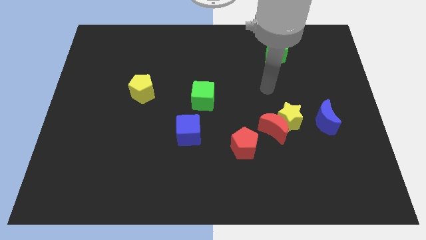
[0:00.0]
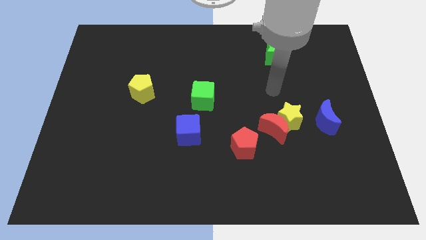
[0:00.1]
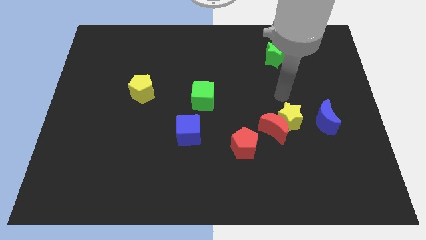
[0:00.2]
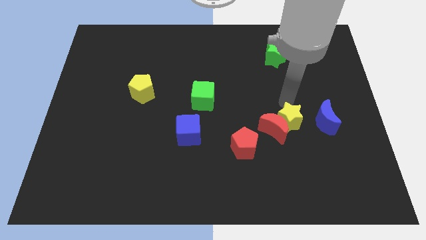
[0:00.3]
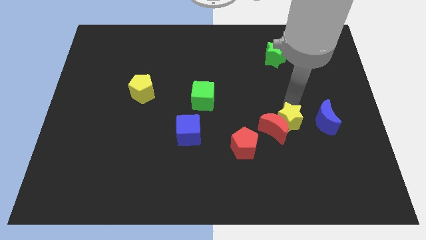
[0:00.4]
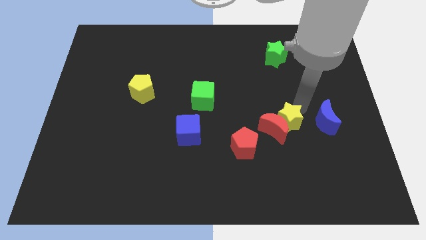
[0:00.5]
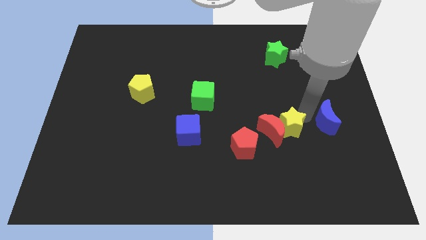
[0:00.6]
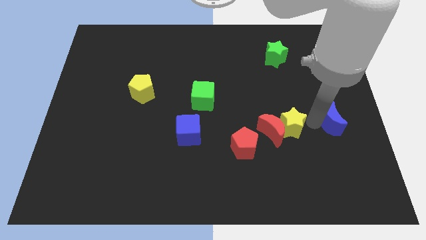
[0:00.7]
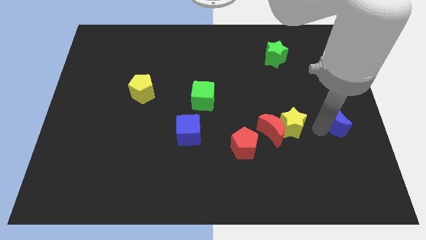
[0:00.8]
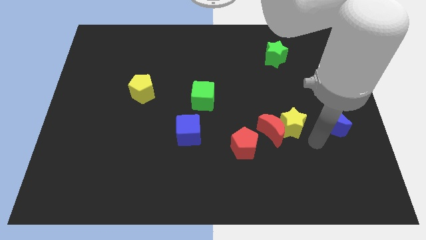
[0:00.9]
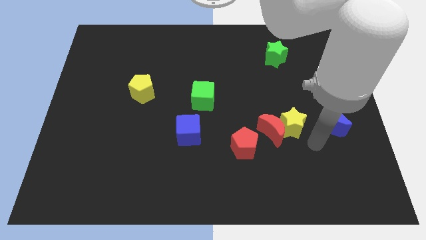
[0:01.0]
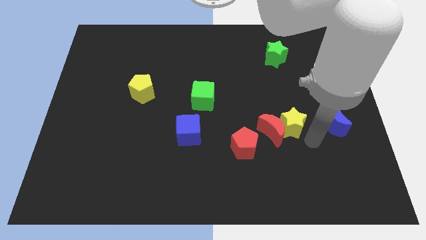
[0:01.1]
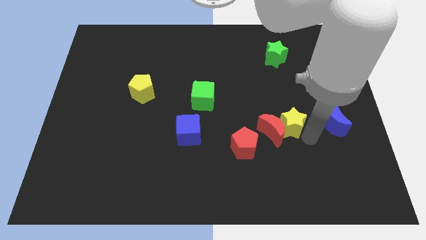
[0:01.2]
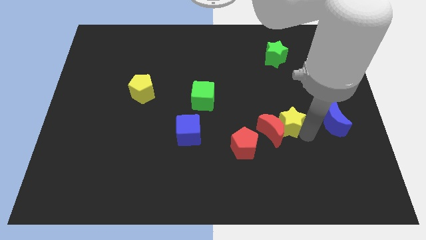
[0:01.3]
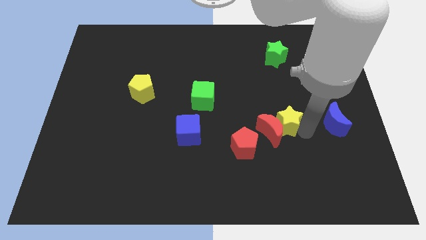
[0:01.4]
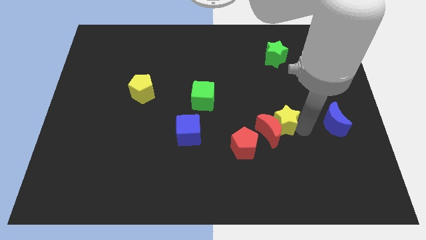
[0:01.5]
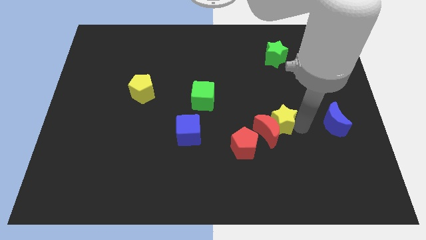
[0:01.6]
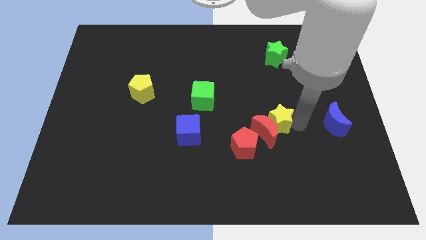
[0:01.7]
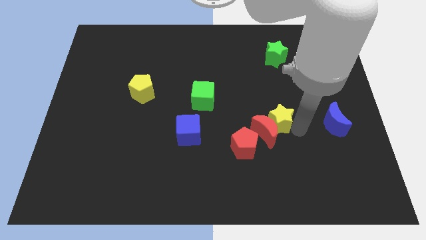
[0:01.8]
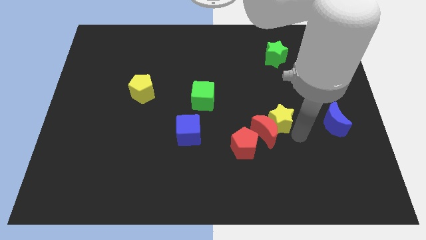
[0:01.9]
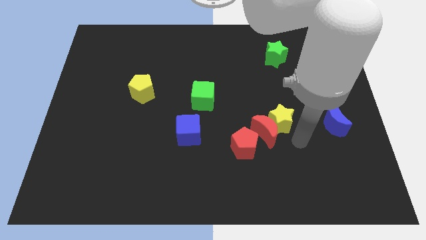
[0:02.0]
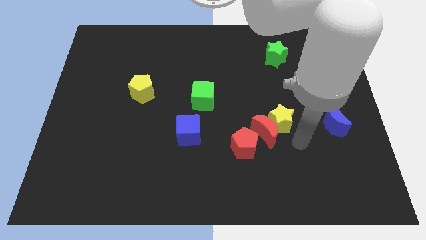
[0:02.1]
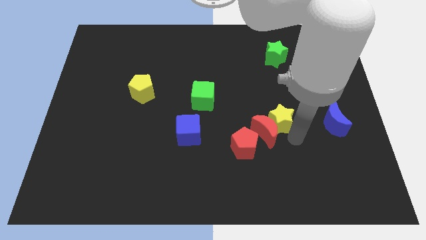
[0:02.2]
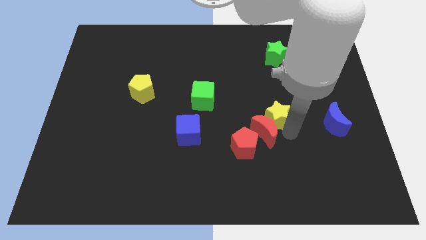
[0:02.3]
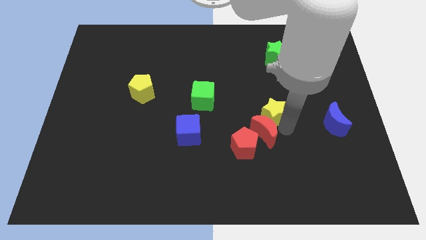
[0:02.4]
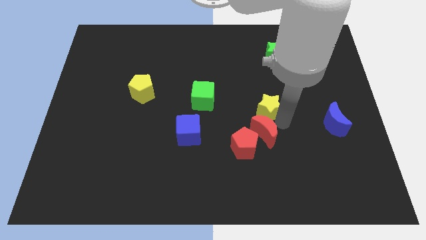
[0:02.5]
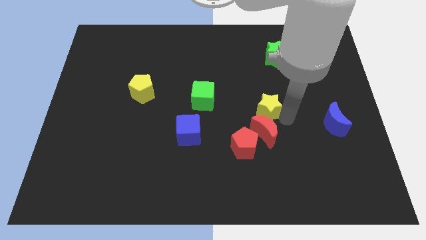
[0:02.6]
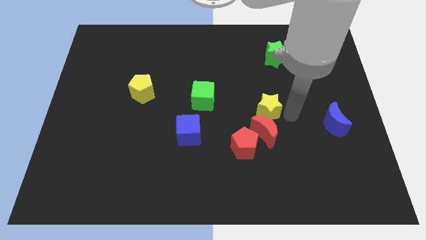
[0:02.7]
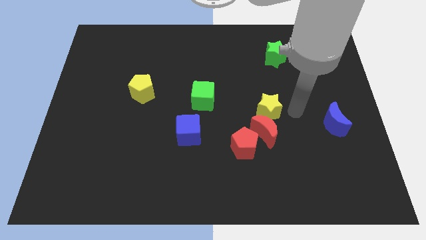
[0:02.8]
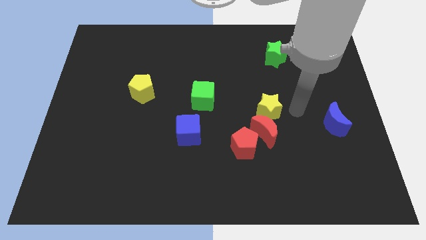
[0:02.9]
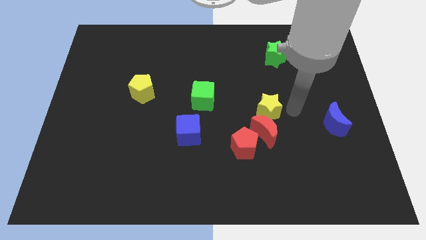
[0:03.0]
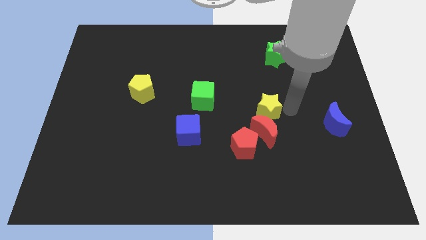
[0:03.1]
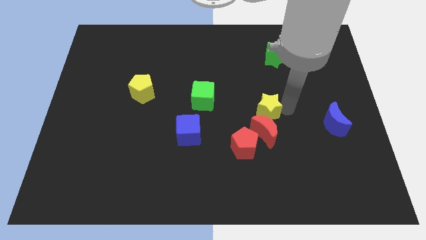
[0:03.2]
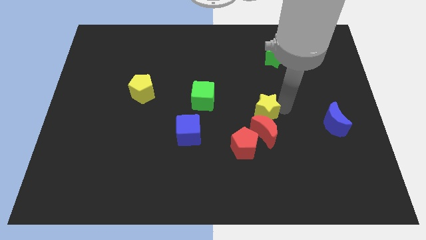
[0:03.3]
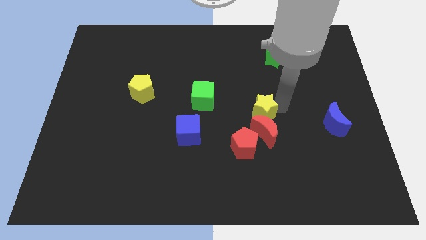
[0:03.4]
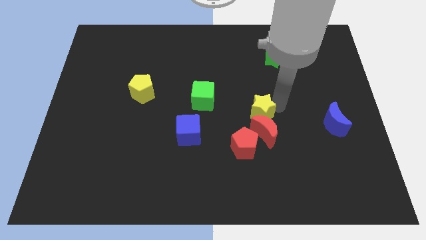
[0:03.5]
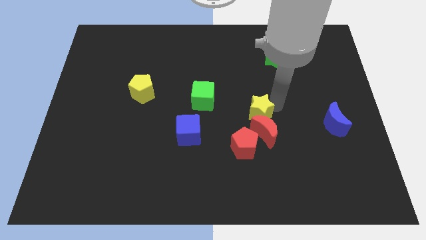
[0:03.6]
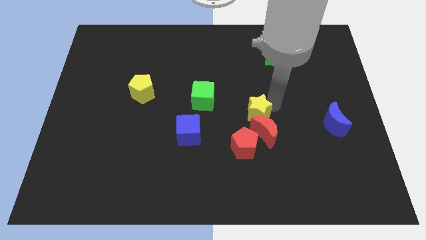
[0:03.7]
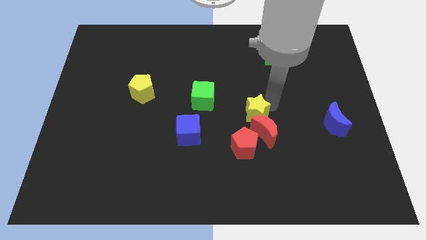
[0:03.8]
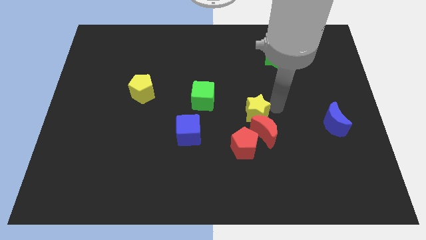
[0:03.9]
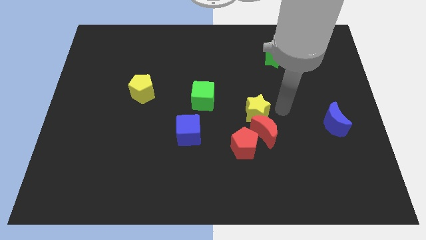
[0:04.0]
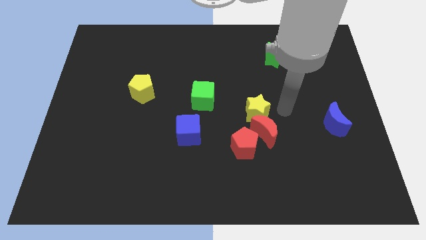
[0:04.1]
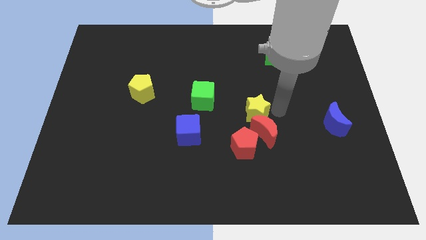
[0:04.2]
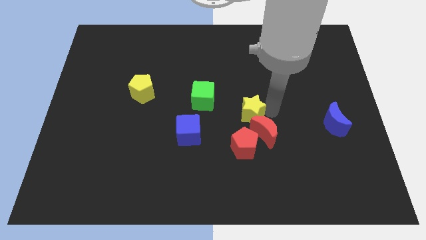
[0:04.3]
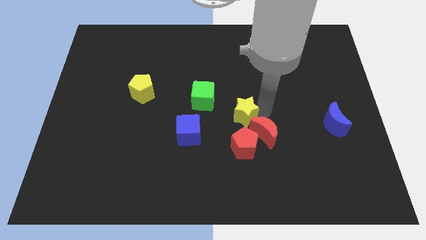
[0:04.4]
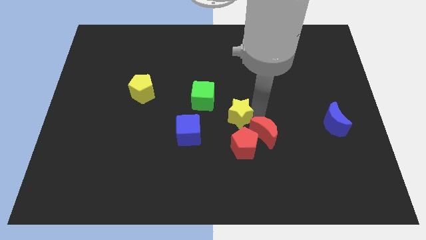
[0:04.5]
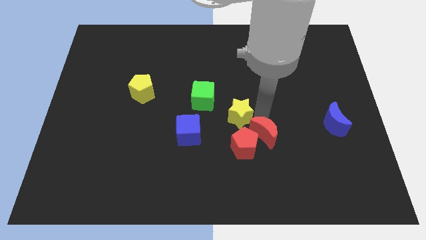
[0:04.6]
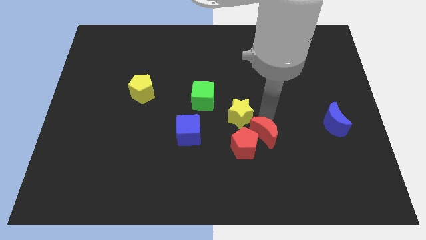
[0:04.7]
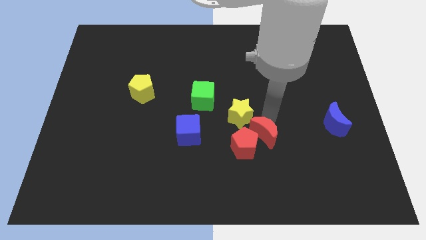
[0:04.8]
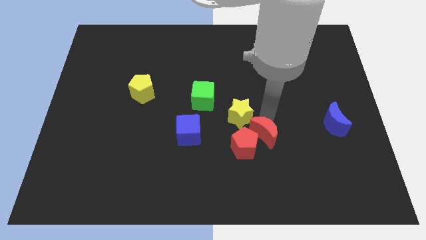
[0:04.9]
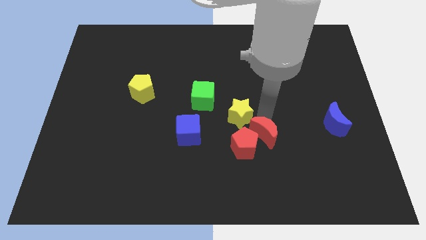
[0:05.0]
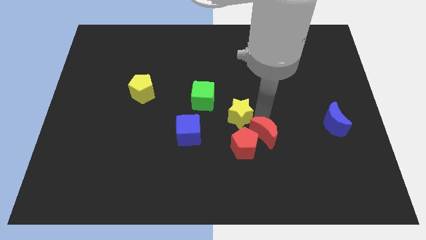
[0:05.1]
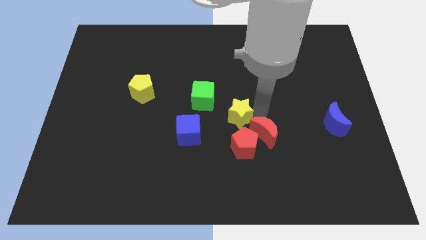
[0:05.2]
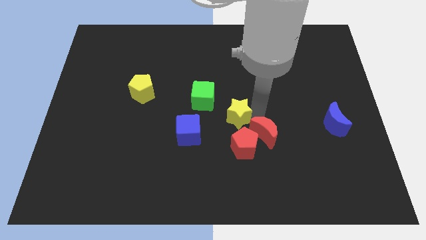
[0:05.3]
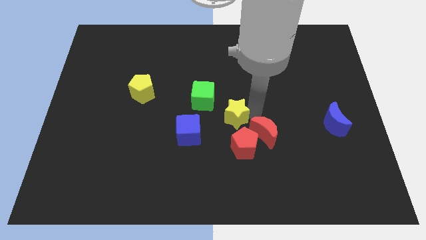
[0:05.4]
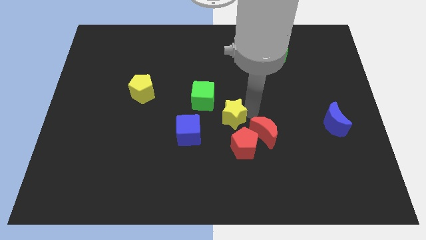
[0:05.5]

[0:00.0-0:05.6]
move the yellow star to the top right side of the blue cube

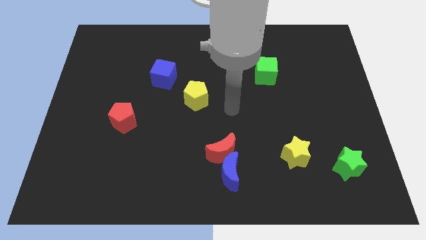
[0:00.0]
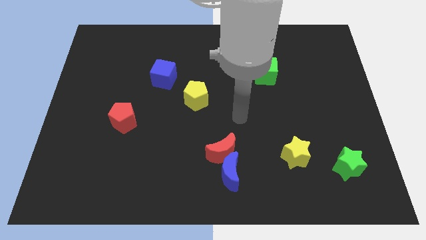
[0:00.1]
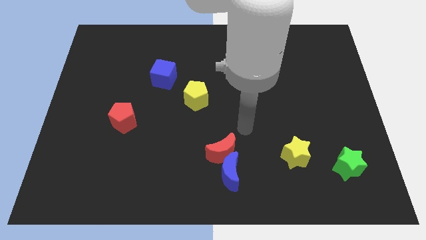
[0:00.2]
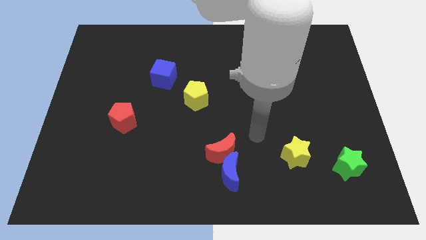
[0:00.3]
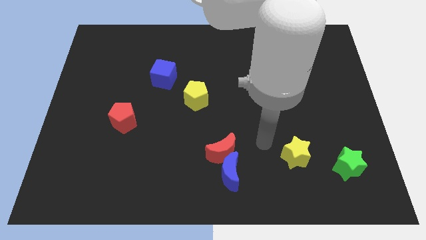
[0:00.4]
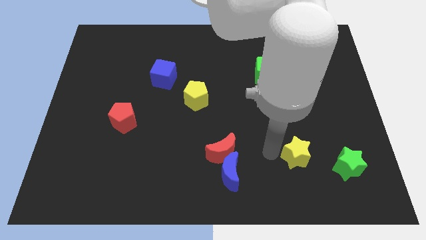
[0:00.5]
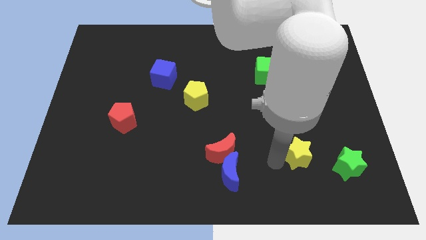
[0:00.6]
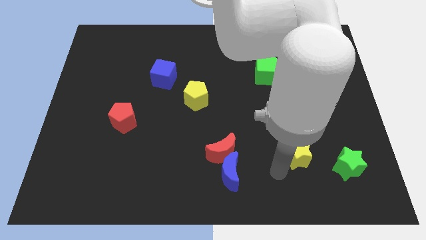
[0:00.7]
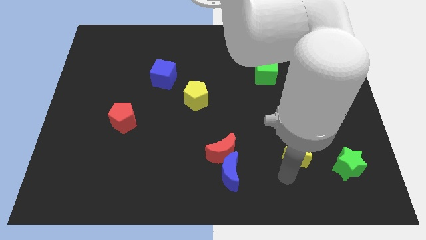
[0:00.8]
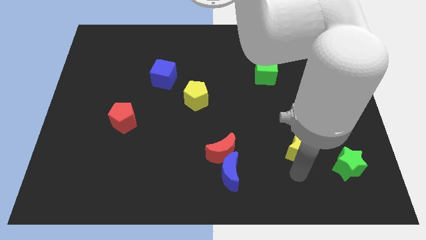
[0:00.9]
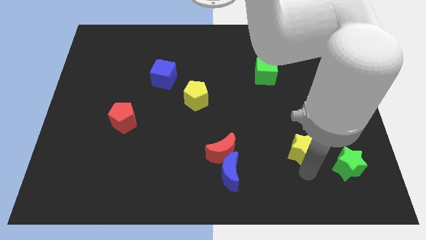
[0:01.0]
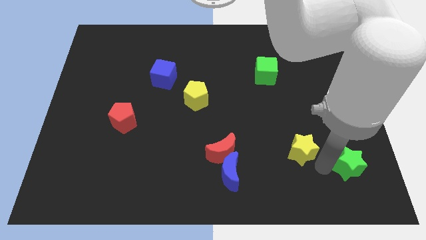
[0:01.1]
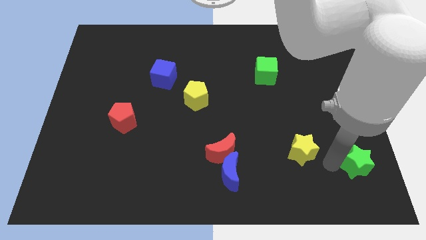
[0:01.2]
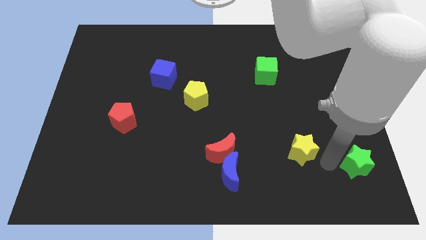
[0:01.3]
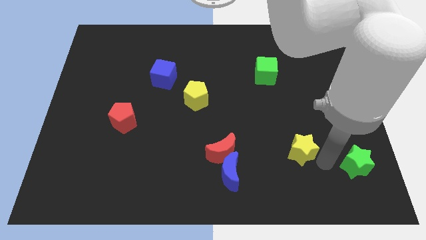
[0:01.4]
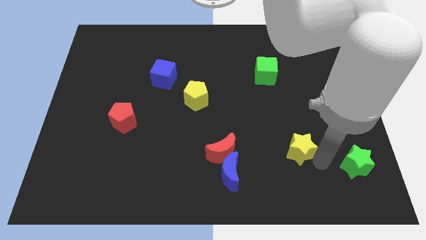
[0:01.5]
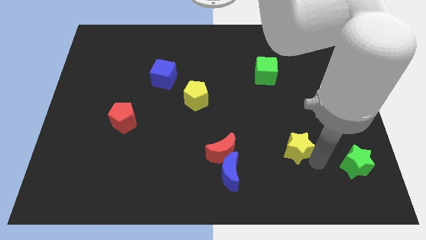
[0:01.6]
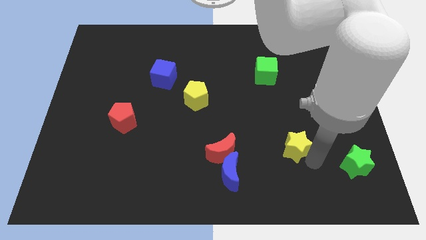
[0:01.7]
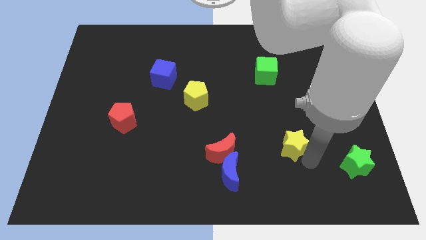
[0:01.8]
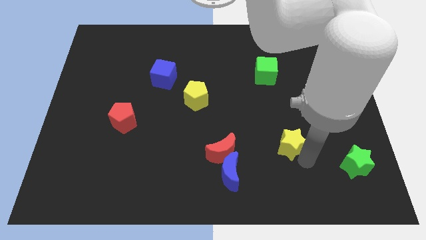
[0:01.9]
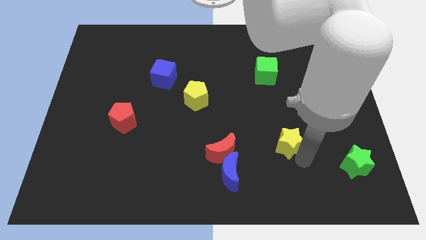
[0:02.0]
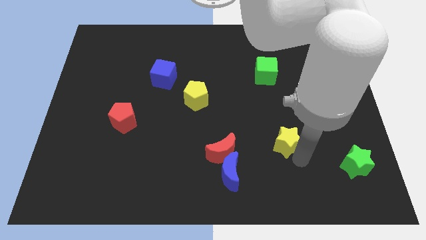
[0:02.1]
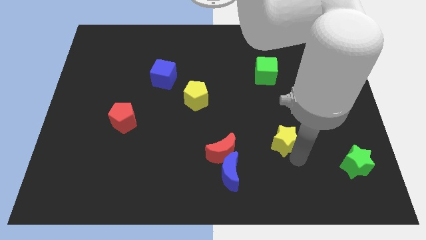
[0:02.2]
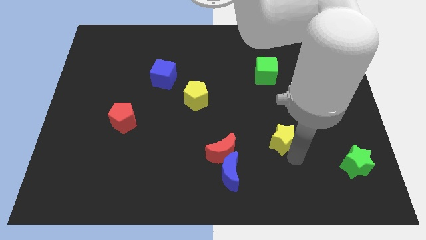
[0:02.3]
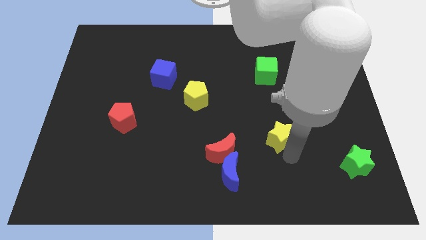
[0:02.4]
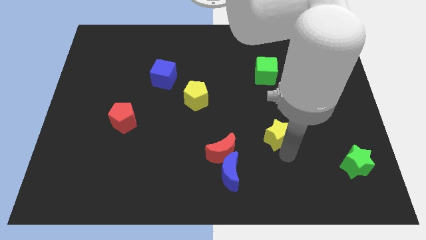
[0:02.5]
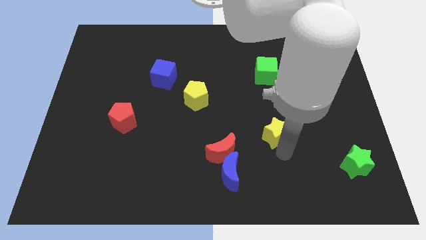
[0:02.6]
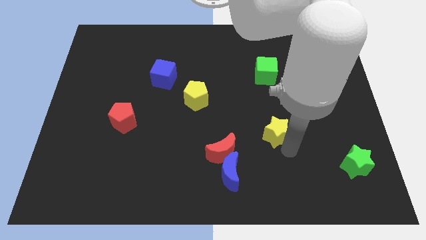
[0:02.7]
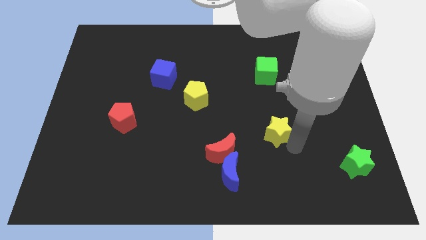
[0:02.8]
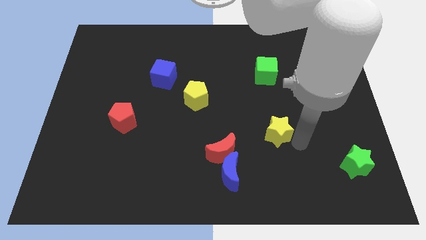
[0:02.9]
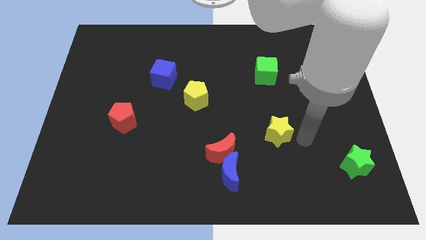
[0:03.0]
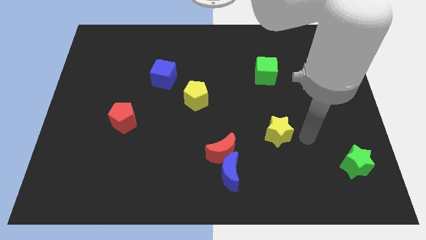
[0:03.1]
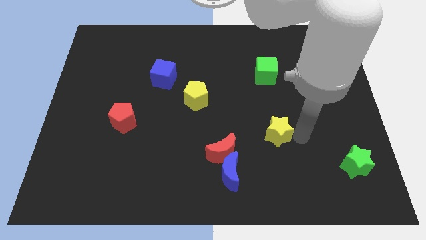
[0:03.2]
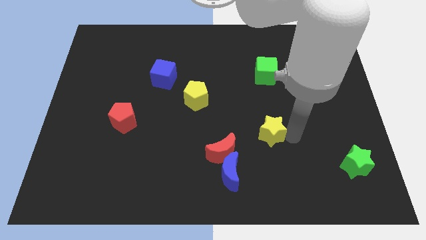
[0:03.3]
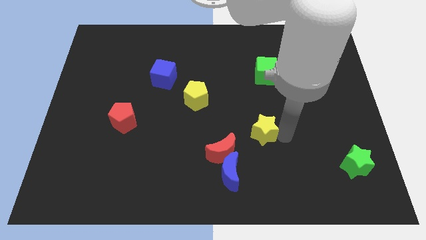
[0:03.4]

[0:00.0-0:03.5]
slide the yellow star to the top right side of the red moon
